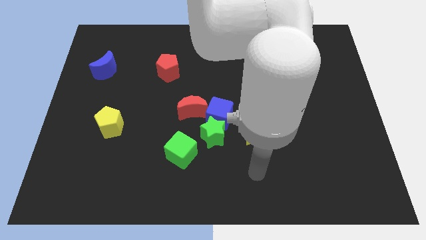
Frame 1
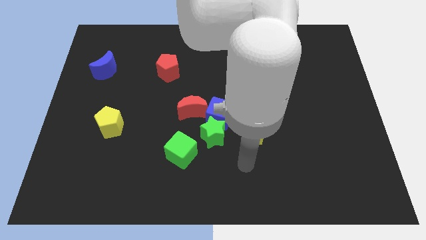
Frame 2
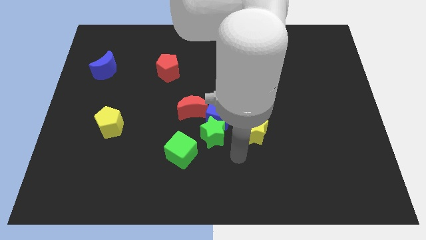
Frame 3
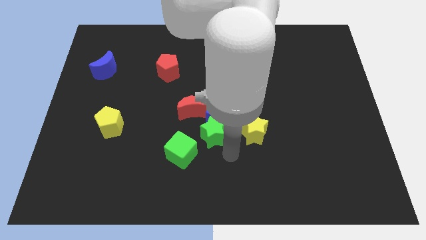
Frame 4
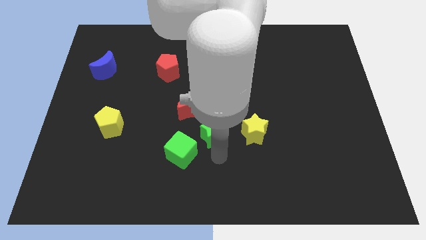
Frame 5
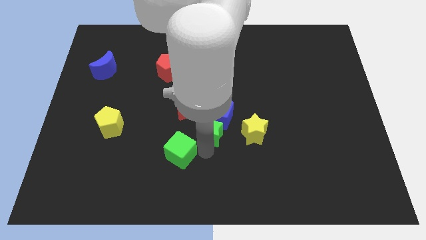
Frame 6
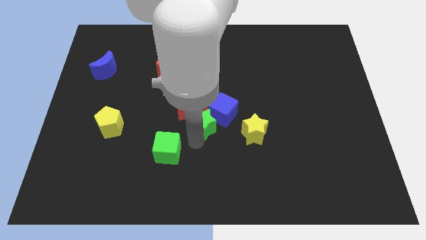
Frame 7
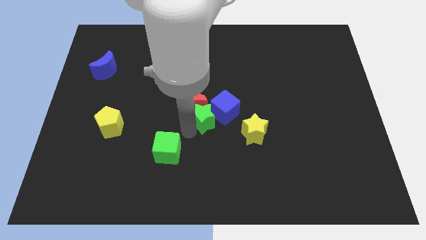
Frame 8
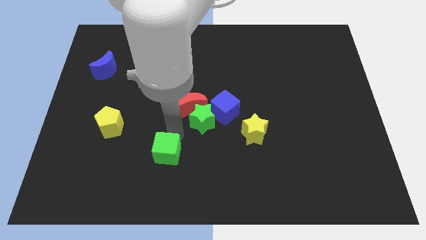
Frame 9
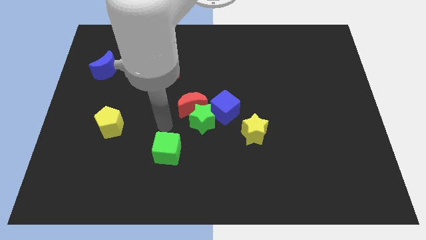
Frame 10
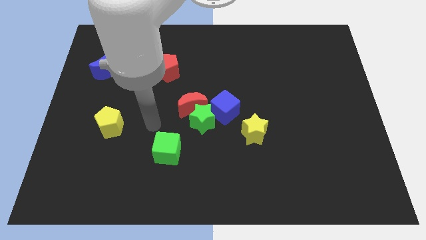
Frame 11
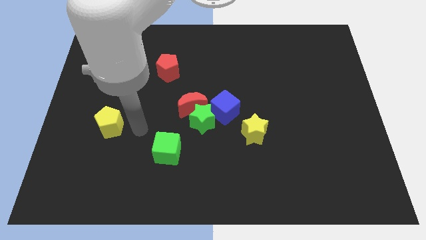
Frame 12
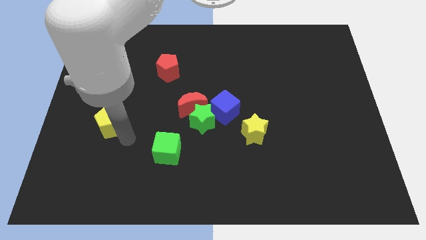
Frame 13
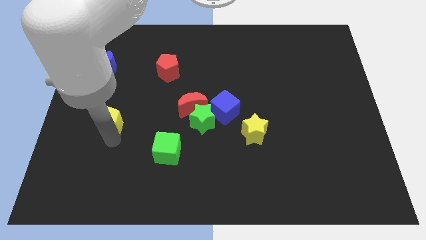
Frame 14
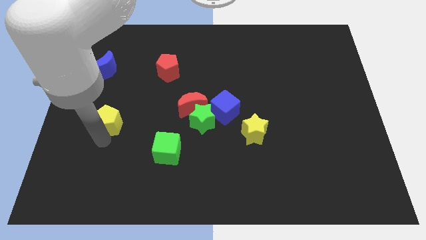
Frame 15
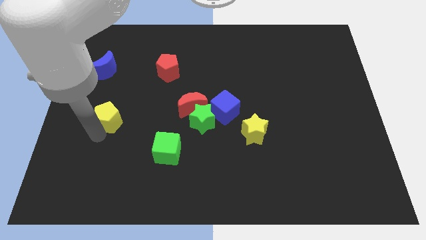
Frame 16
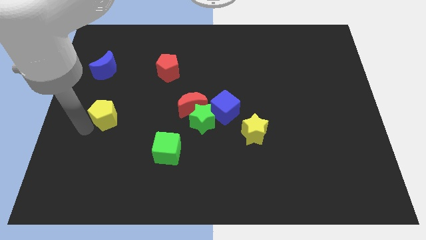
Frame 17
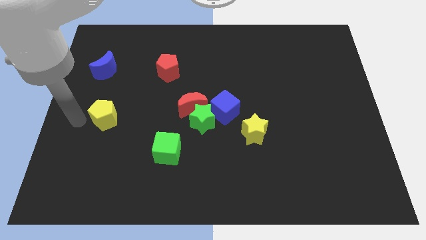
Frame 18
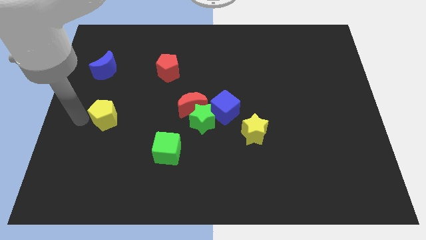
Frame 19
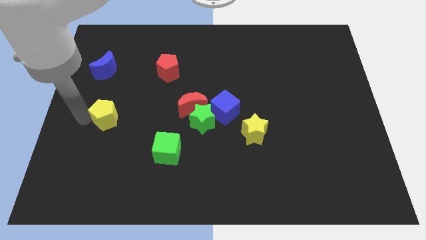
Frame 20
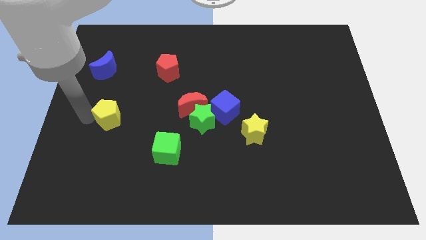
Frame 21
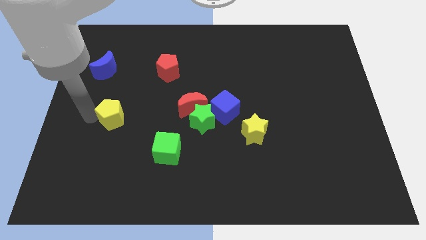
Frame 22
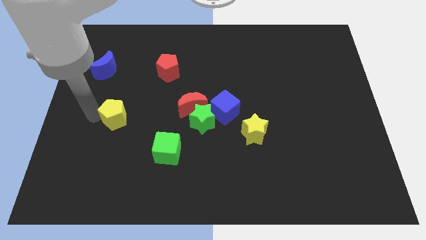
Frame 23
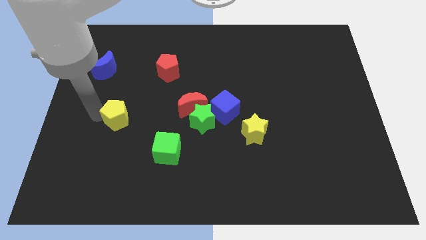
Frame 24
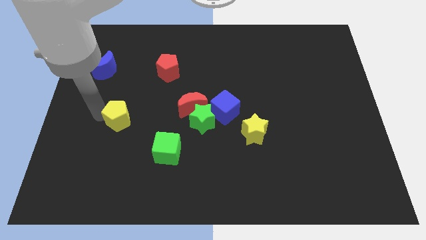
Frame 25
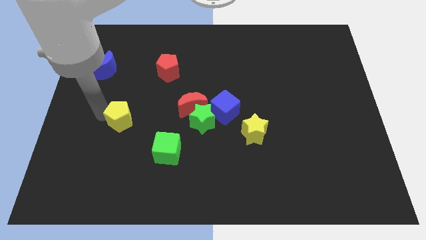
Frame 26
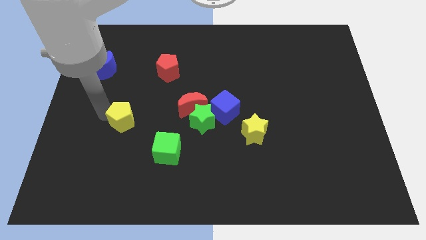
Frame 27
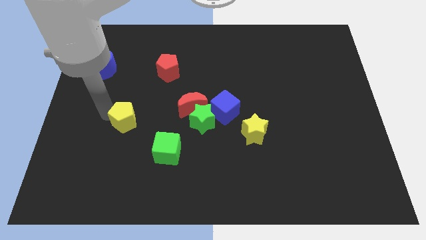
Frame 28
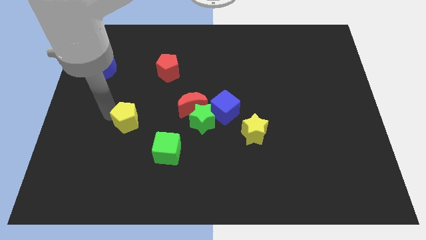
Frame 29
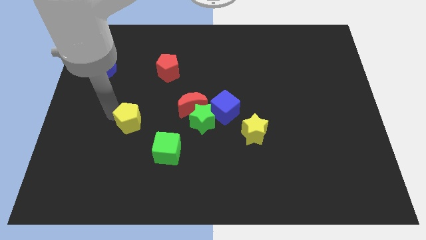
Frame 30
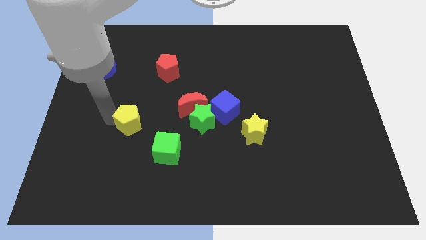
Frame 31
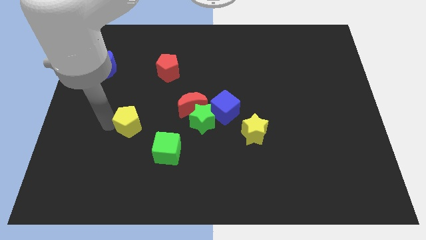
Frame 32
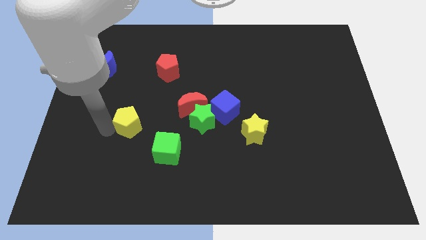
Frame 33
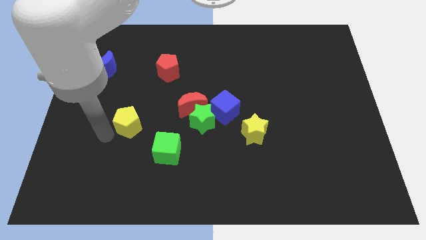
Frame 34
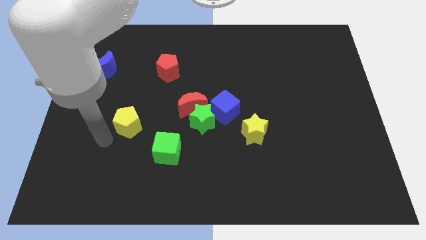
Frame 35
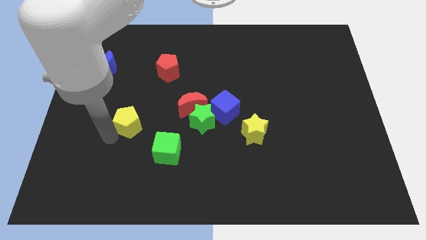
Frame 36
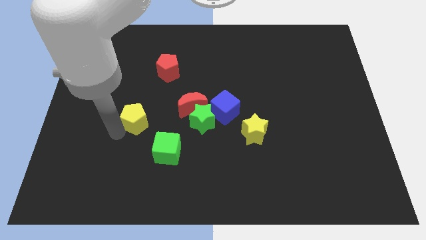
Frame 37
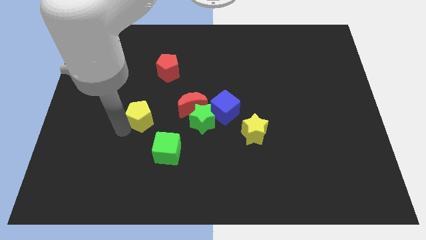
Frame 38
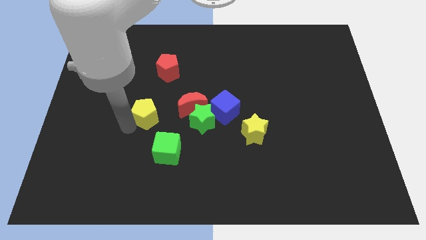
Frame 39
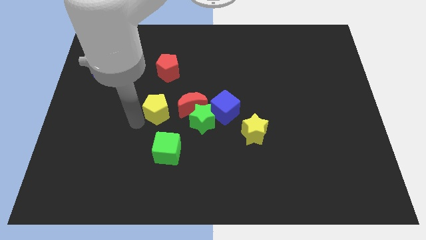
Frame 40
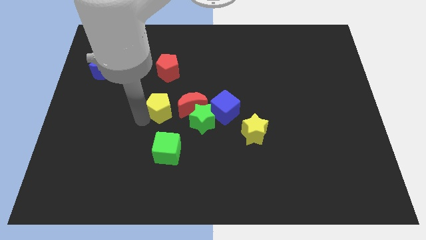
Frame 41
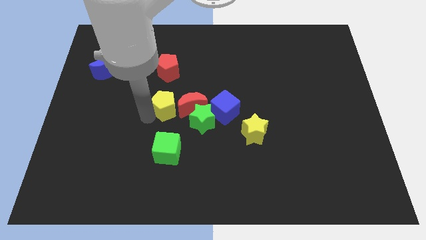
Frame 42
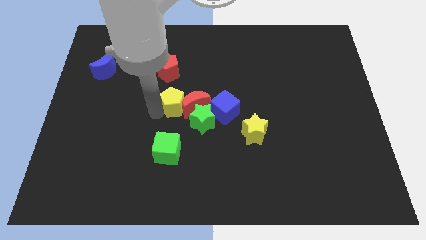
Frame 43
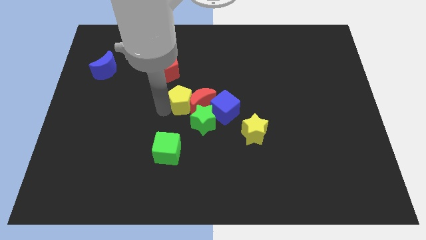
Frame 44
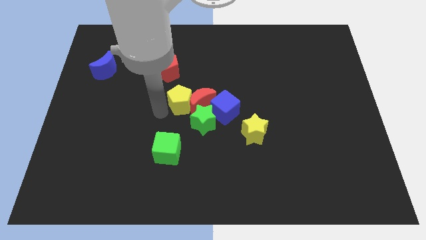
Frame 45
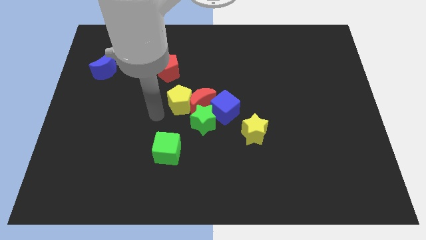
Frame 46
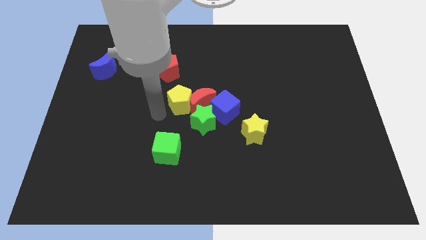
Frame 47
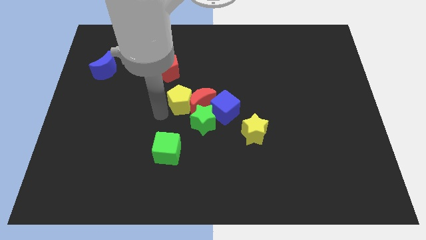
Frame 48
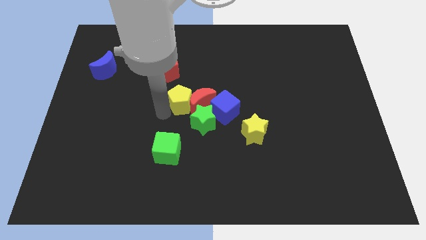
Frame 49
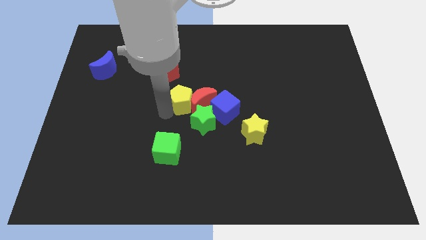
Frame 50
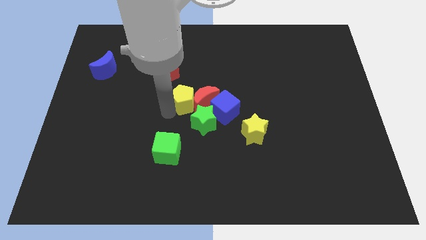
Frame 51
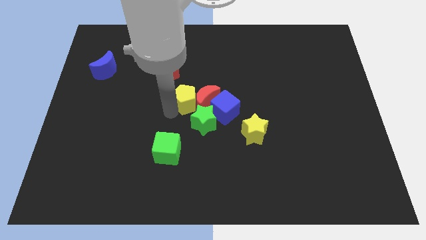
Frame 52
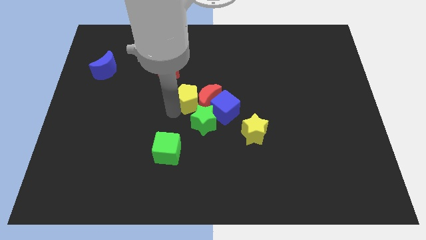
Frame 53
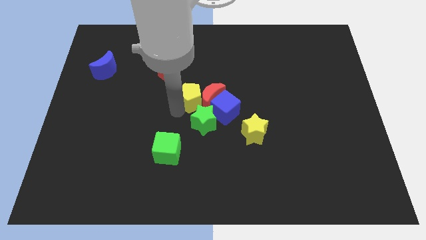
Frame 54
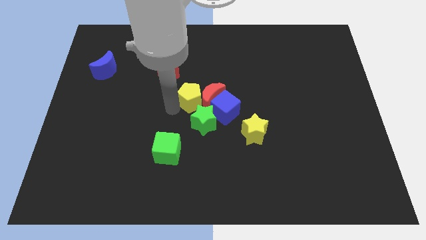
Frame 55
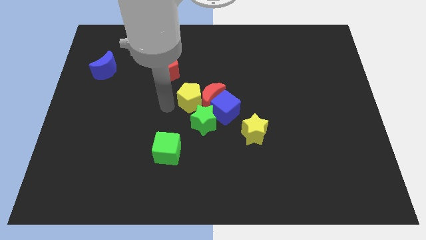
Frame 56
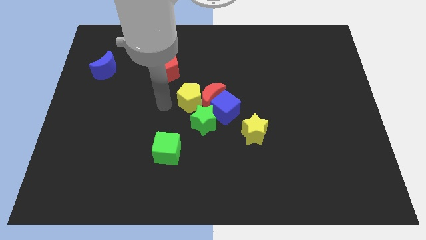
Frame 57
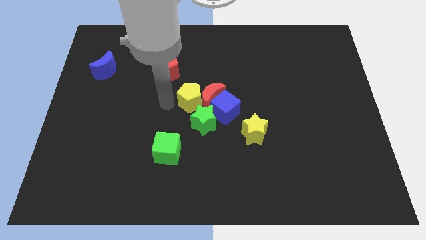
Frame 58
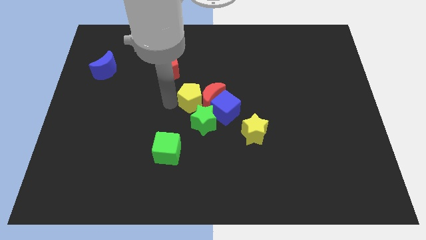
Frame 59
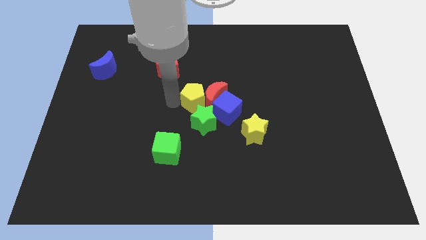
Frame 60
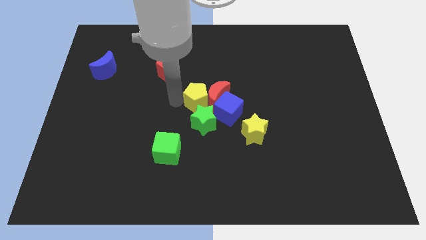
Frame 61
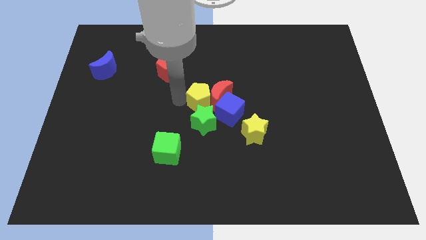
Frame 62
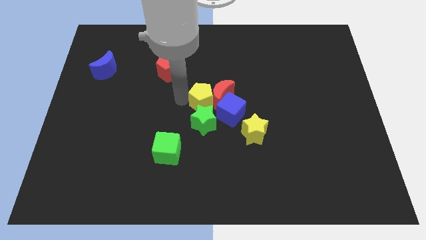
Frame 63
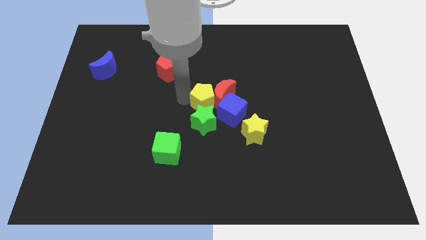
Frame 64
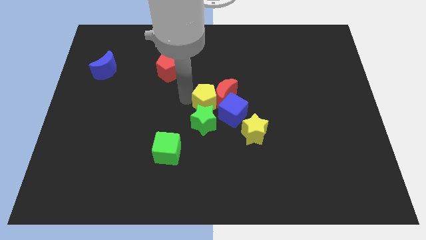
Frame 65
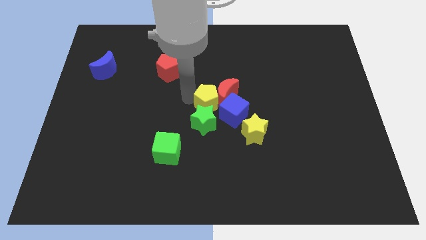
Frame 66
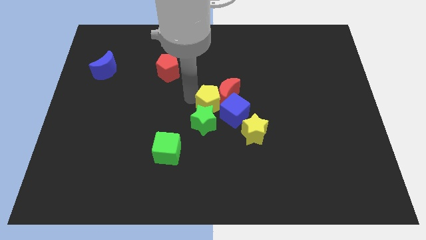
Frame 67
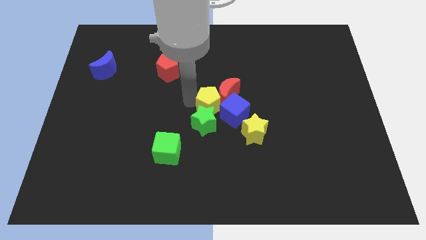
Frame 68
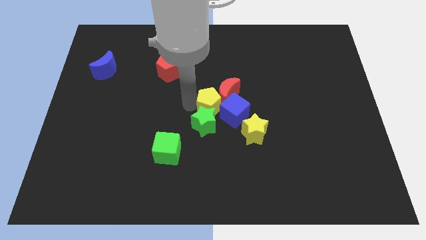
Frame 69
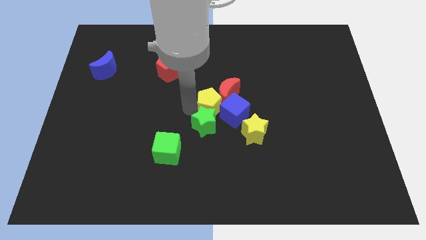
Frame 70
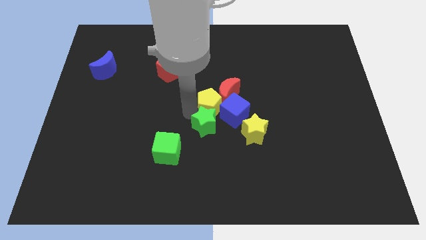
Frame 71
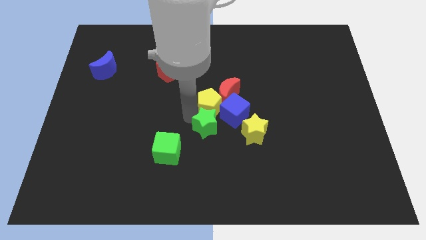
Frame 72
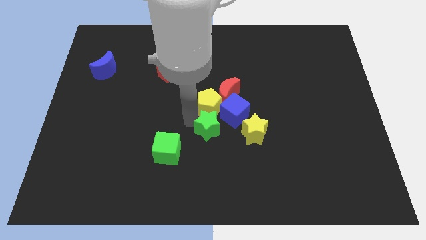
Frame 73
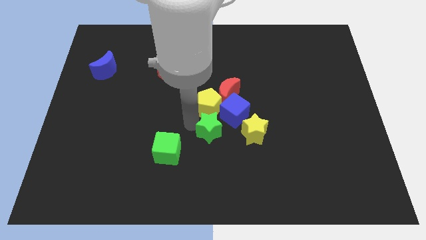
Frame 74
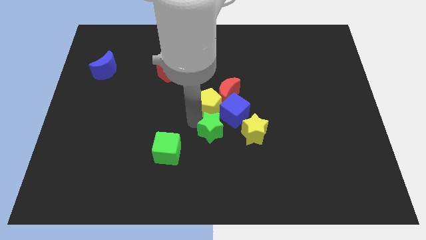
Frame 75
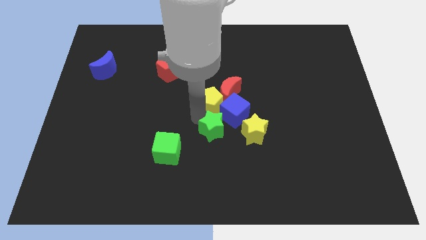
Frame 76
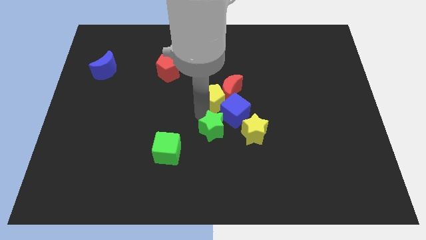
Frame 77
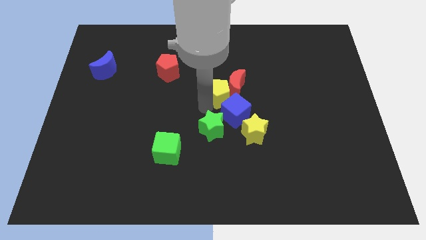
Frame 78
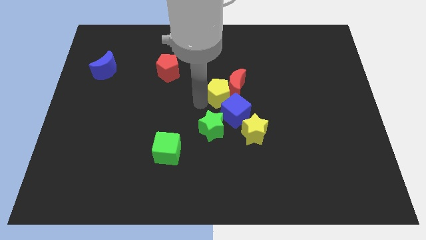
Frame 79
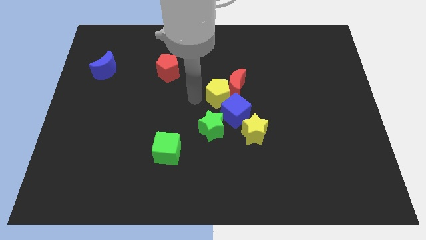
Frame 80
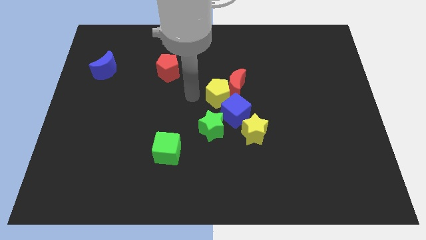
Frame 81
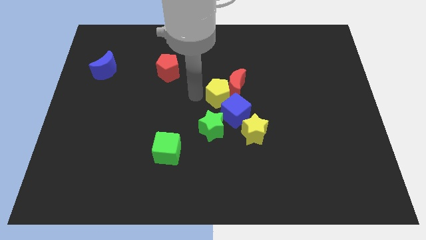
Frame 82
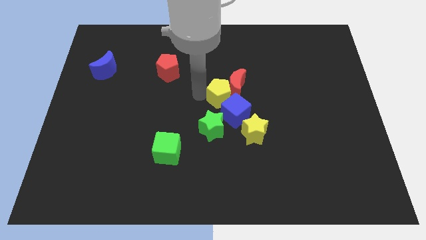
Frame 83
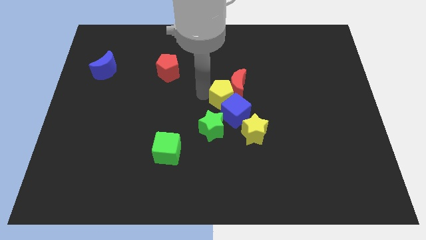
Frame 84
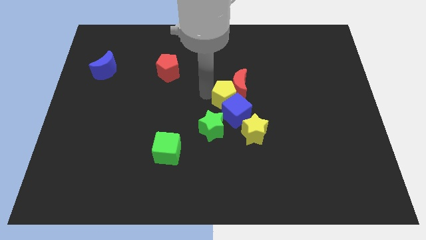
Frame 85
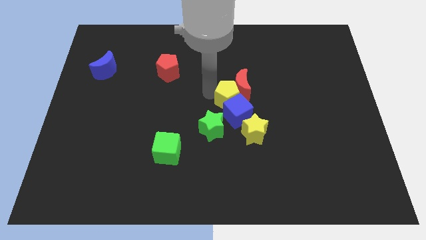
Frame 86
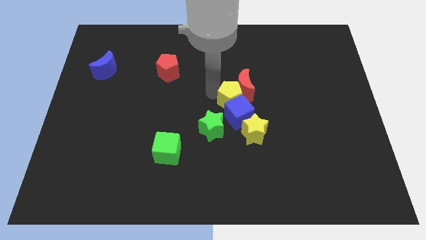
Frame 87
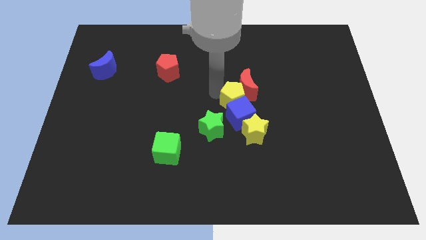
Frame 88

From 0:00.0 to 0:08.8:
put the yellow pentagon to the top of the yellow star
